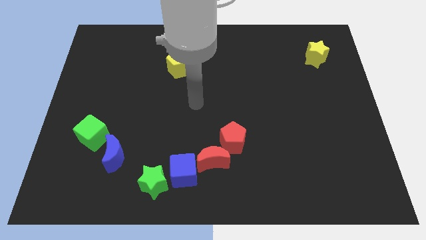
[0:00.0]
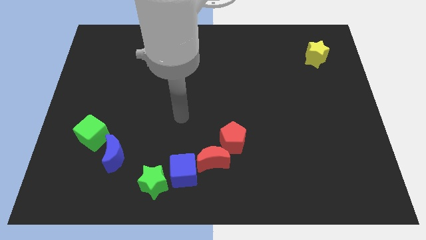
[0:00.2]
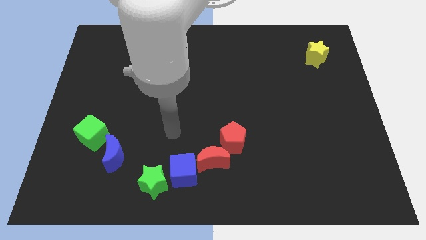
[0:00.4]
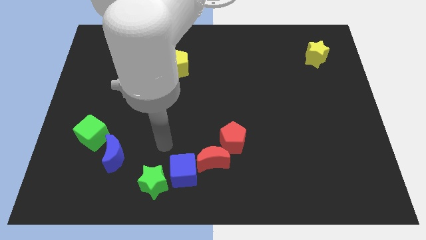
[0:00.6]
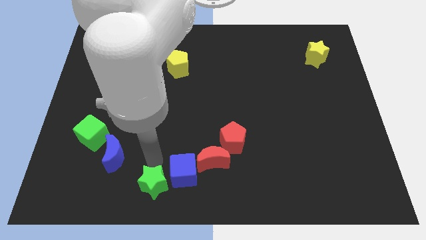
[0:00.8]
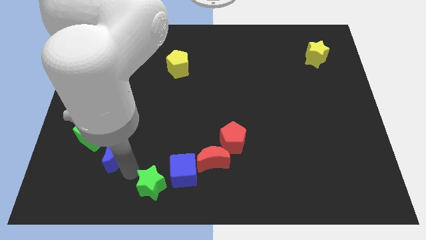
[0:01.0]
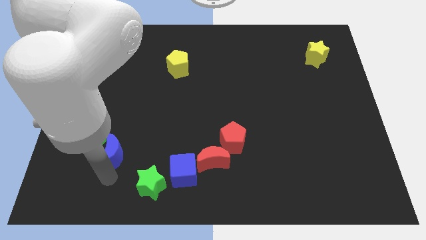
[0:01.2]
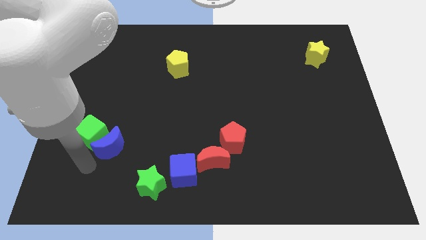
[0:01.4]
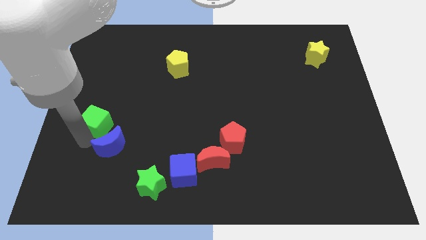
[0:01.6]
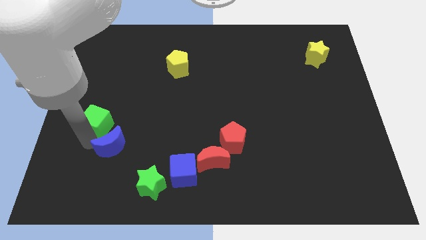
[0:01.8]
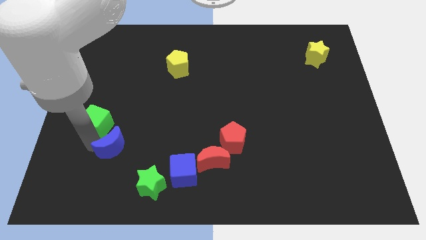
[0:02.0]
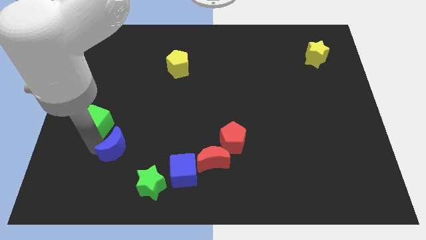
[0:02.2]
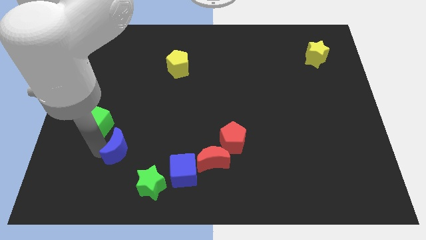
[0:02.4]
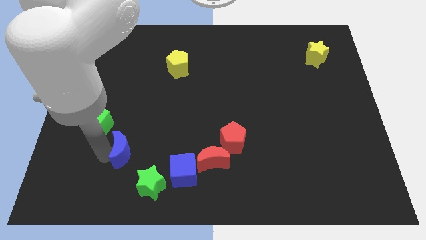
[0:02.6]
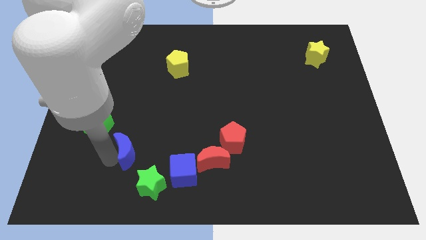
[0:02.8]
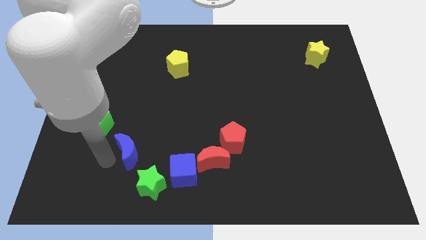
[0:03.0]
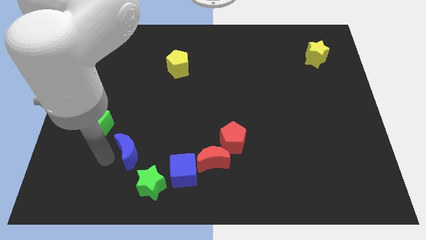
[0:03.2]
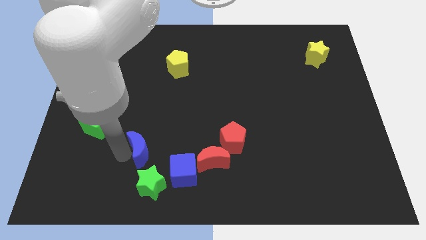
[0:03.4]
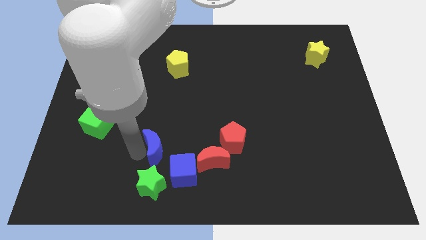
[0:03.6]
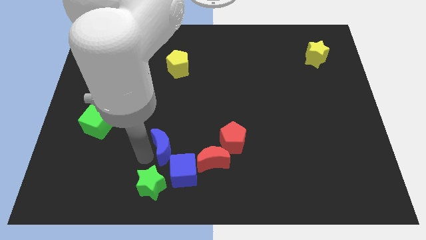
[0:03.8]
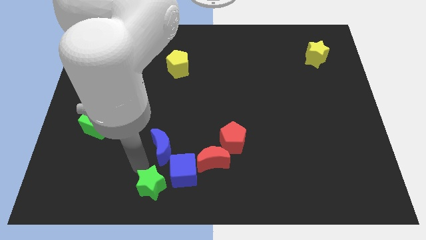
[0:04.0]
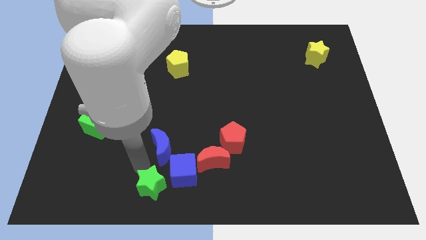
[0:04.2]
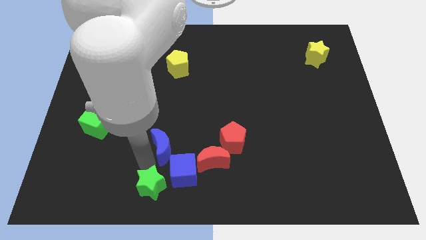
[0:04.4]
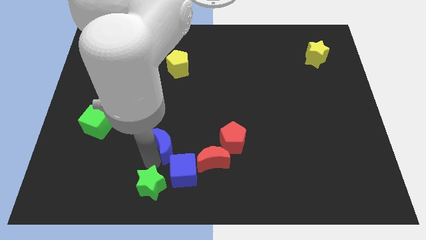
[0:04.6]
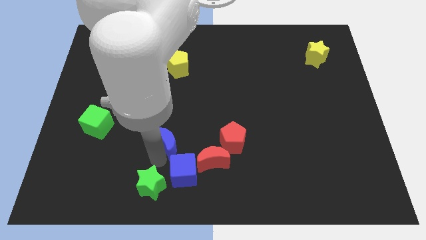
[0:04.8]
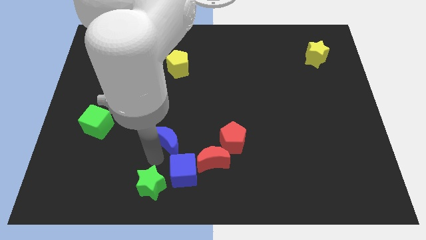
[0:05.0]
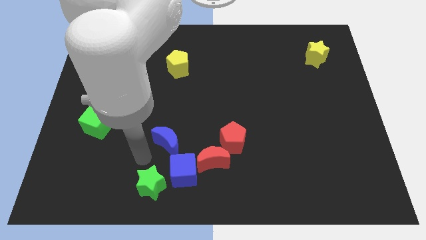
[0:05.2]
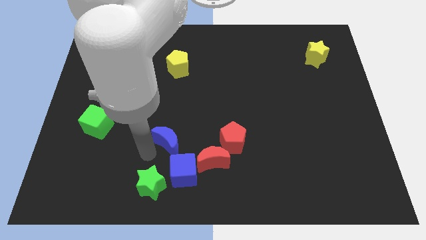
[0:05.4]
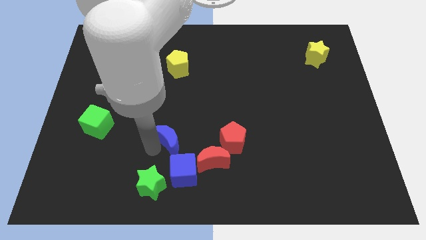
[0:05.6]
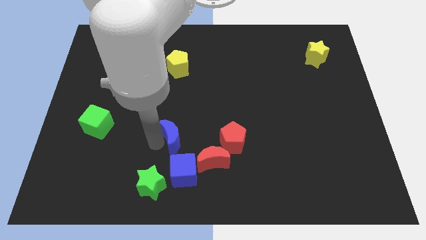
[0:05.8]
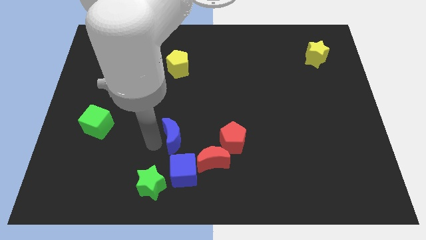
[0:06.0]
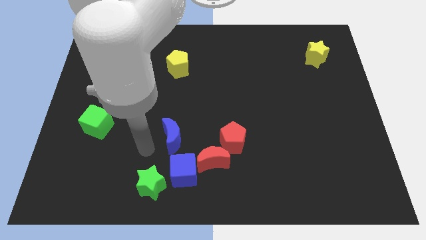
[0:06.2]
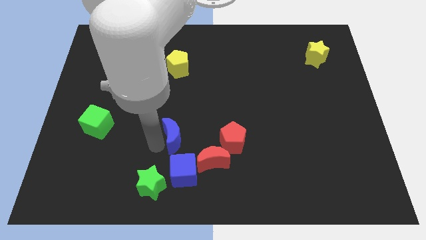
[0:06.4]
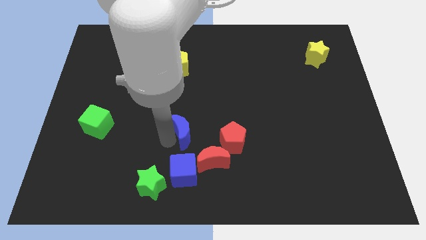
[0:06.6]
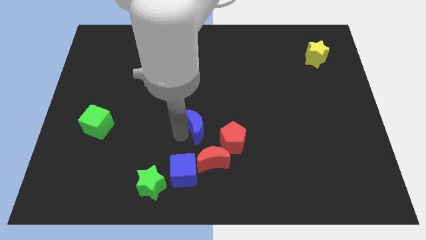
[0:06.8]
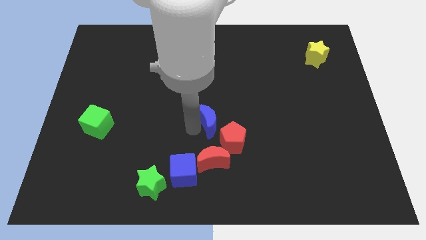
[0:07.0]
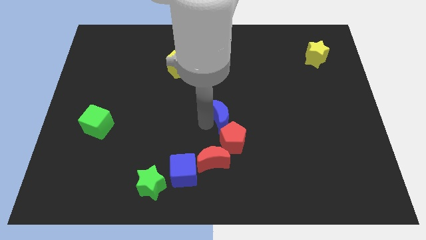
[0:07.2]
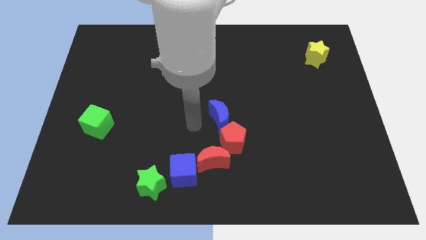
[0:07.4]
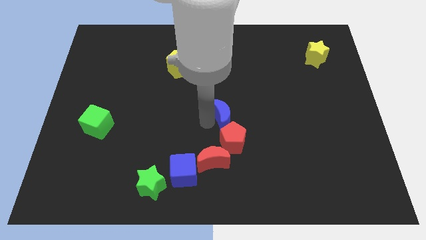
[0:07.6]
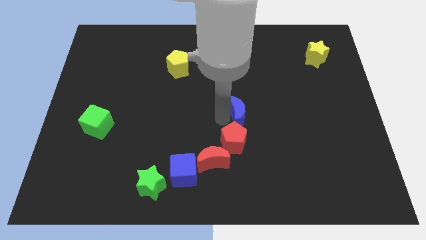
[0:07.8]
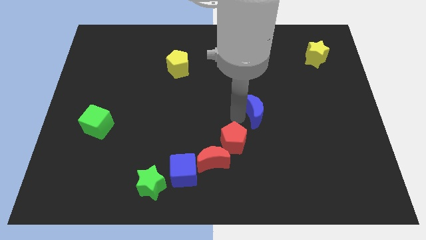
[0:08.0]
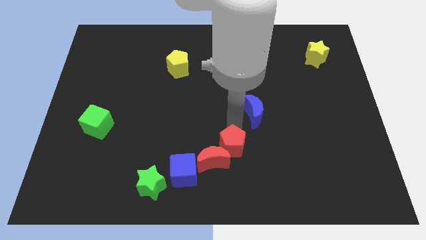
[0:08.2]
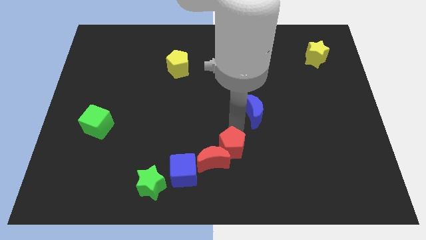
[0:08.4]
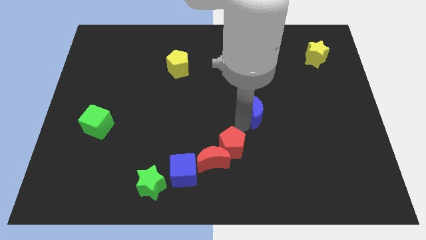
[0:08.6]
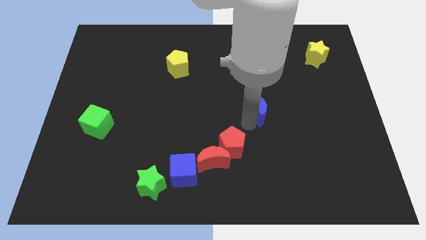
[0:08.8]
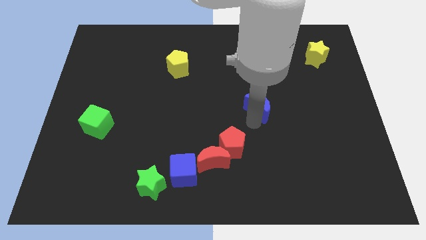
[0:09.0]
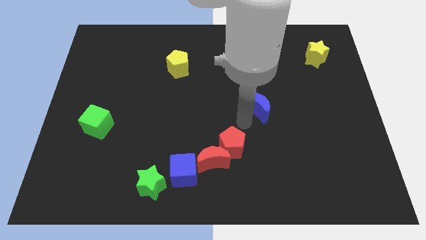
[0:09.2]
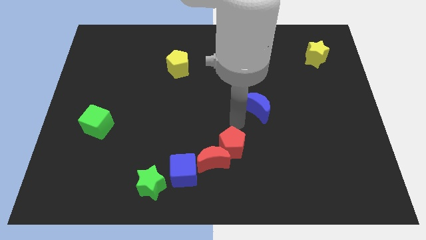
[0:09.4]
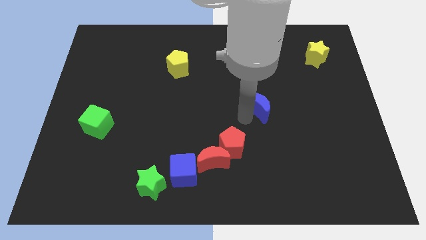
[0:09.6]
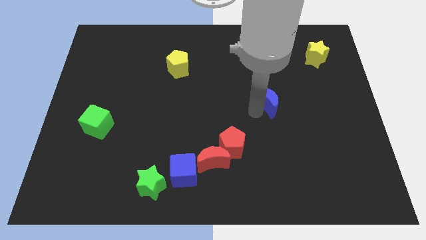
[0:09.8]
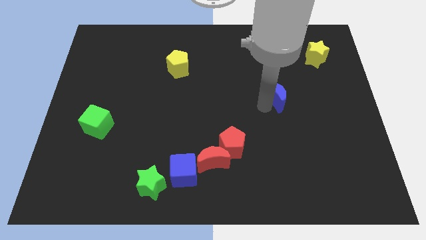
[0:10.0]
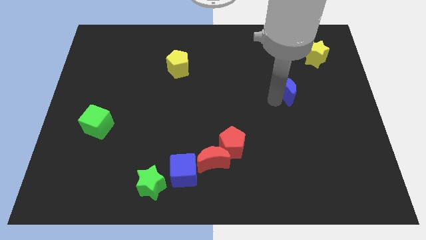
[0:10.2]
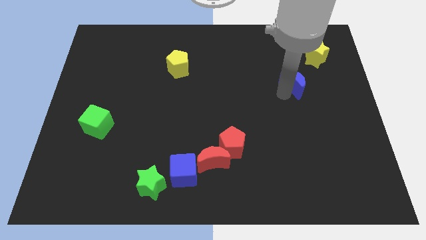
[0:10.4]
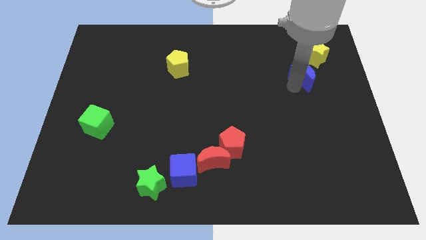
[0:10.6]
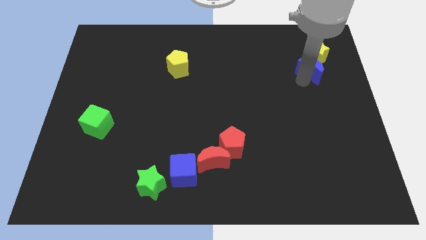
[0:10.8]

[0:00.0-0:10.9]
slide the blue moon next to the yellow star

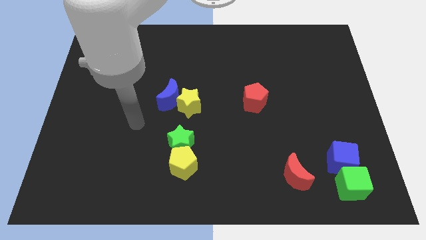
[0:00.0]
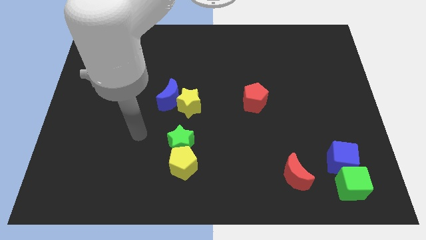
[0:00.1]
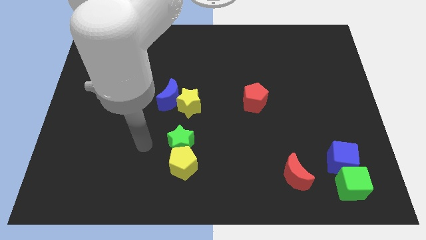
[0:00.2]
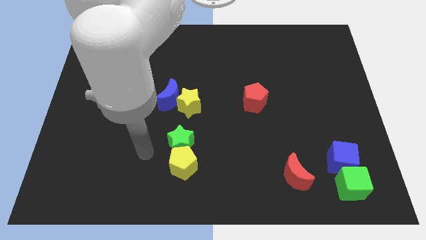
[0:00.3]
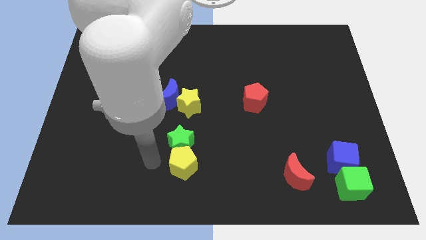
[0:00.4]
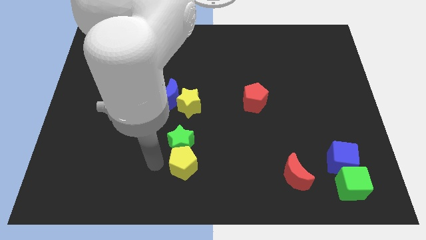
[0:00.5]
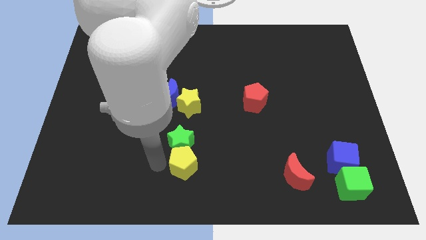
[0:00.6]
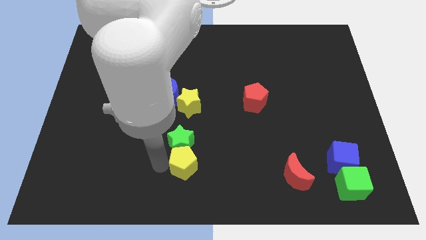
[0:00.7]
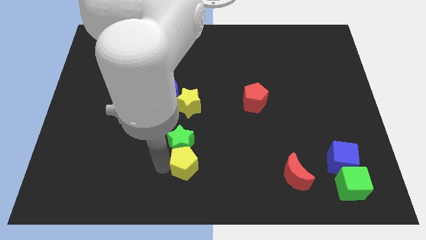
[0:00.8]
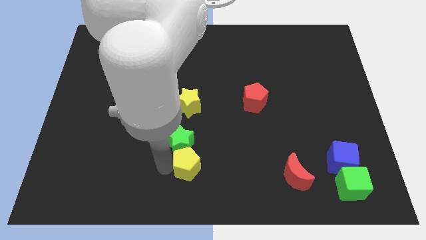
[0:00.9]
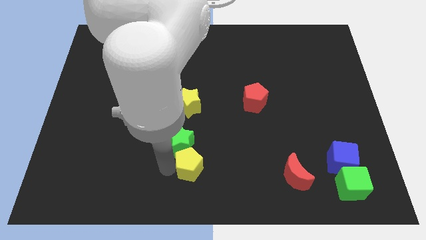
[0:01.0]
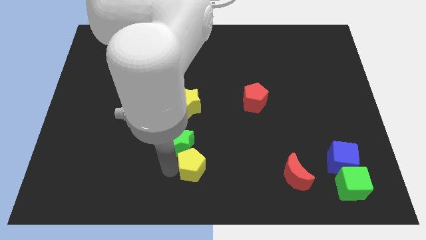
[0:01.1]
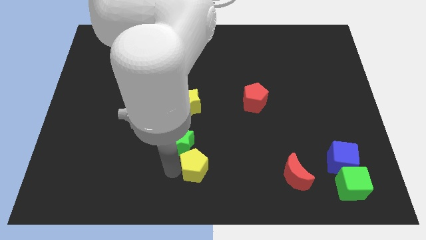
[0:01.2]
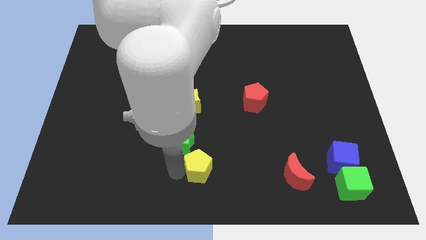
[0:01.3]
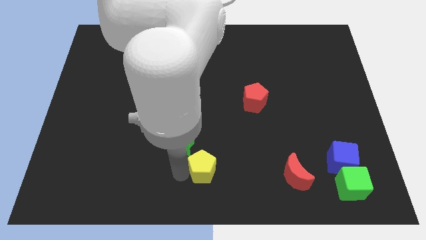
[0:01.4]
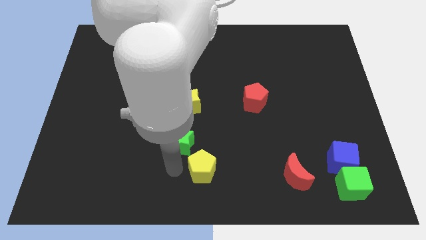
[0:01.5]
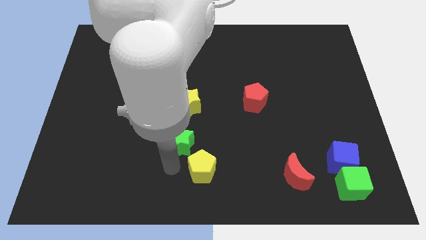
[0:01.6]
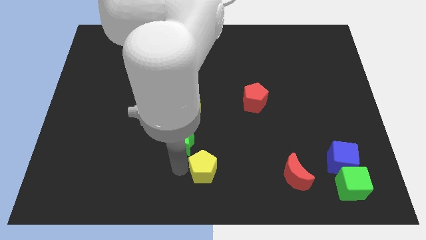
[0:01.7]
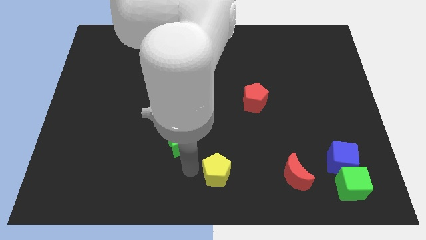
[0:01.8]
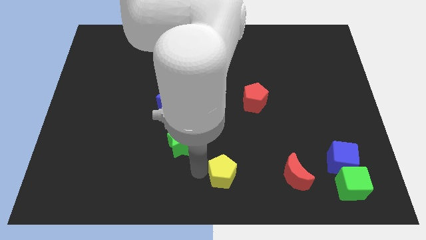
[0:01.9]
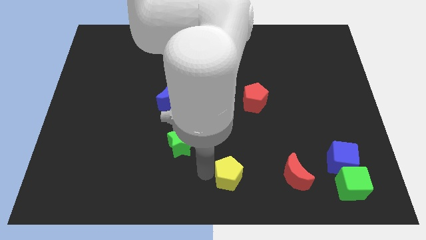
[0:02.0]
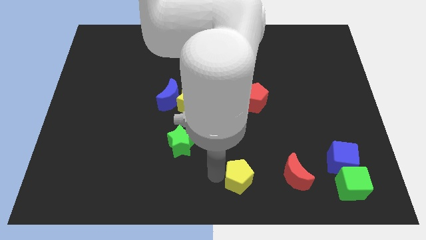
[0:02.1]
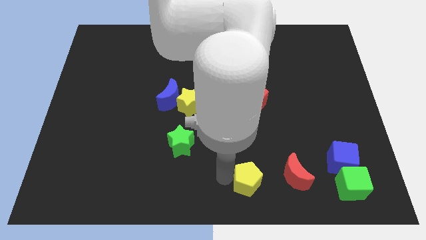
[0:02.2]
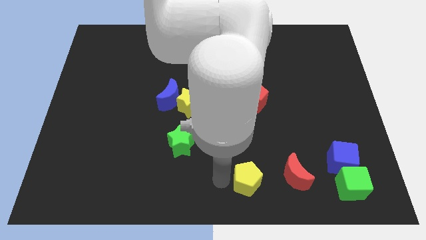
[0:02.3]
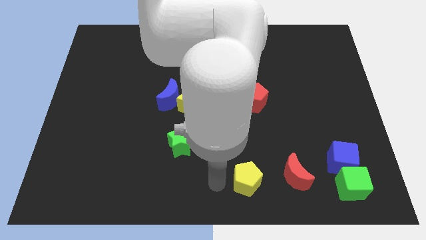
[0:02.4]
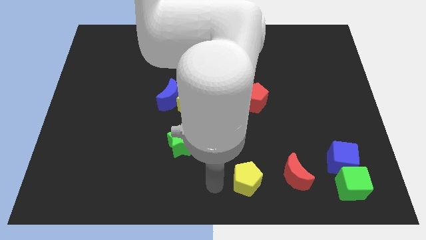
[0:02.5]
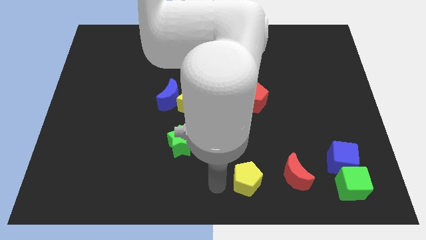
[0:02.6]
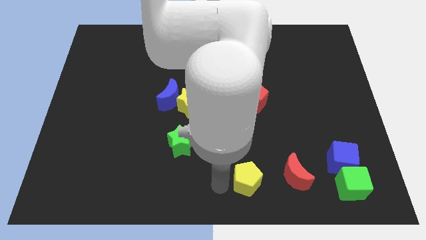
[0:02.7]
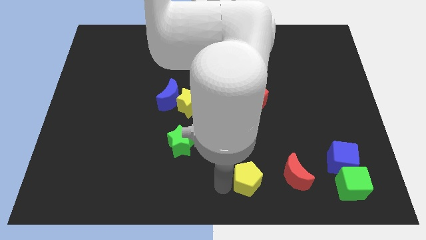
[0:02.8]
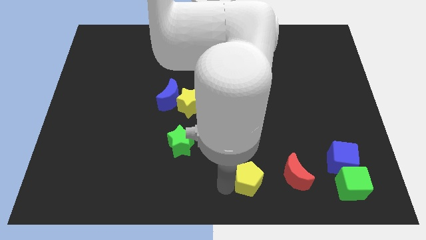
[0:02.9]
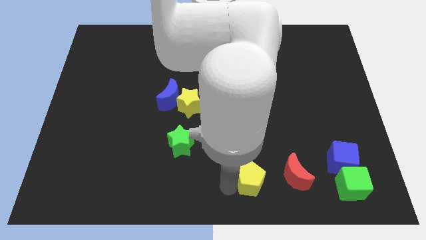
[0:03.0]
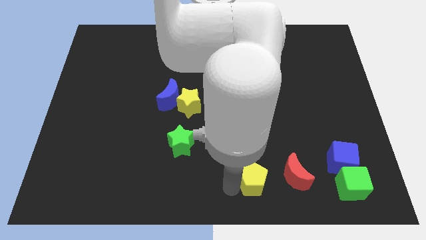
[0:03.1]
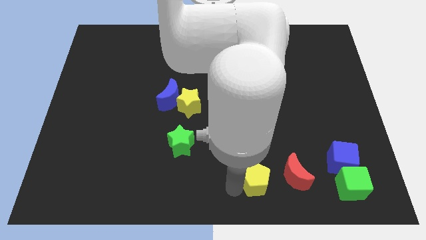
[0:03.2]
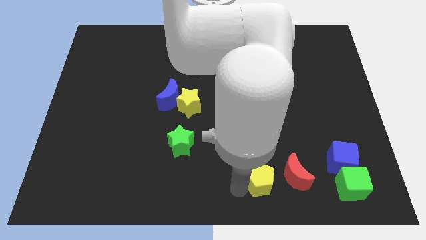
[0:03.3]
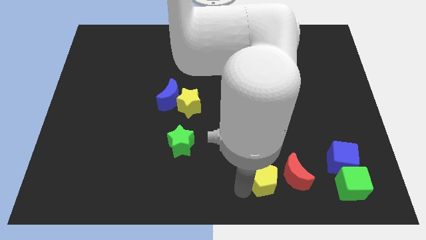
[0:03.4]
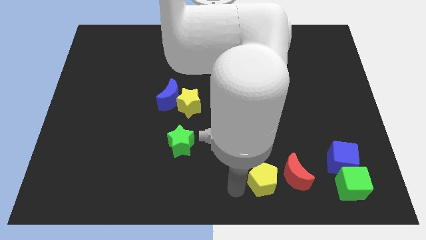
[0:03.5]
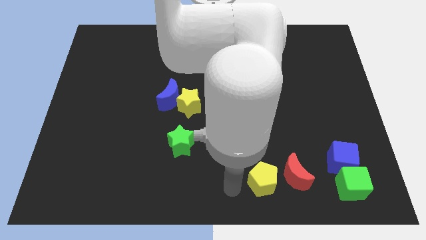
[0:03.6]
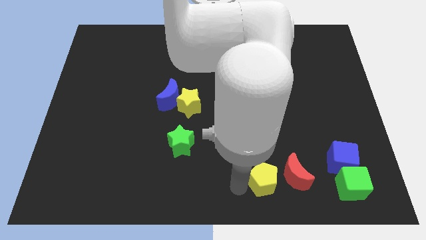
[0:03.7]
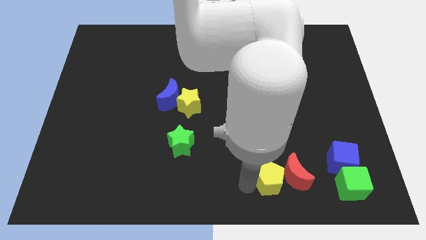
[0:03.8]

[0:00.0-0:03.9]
slide the yellow pentagon to the red moon
